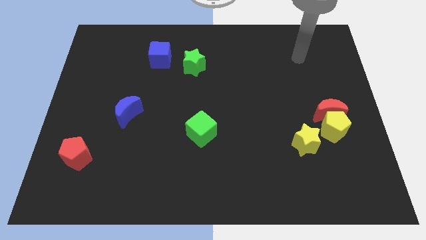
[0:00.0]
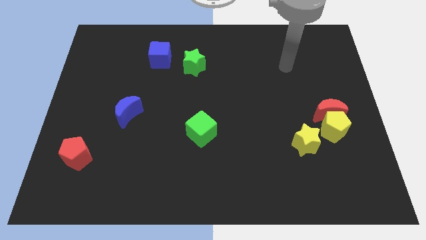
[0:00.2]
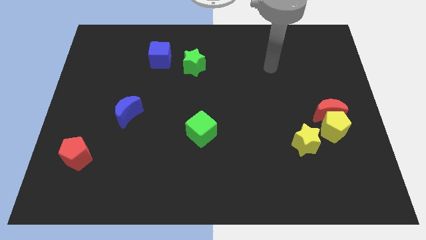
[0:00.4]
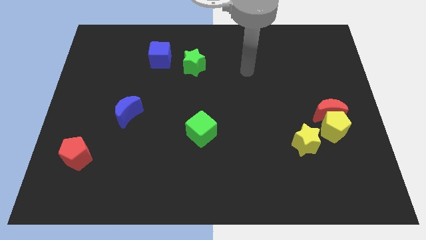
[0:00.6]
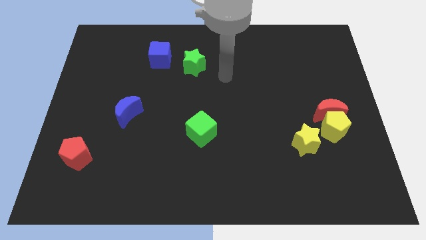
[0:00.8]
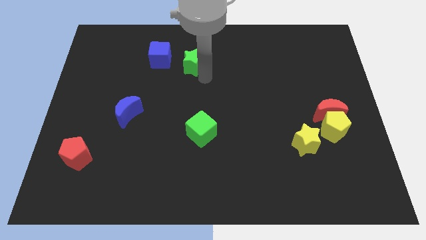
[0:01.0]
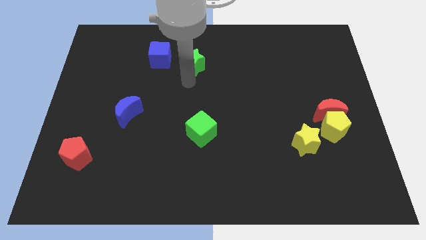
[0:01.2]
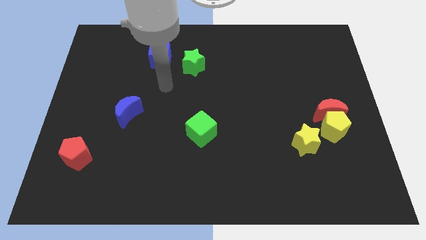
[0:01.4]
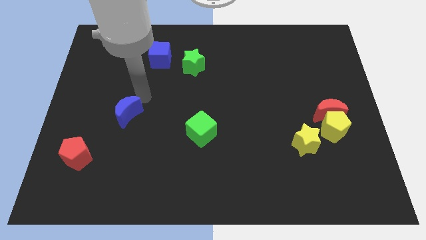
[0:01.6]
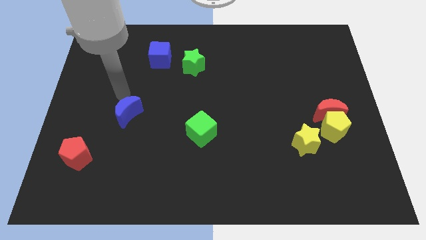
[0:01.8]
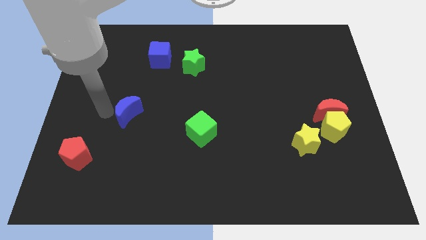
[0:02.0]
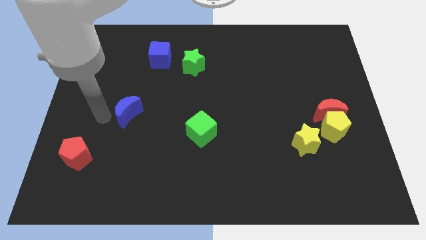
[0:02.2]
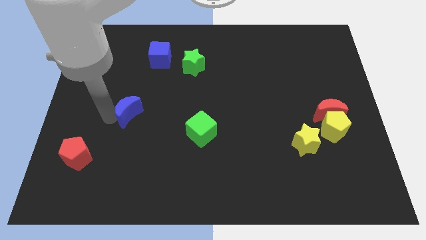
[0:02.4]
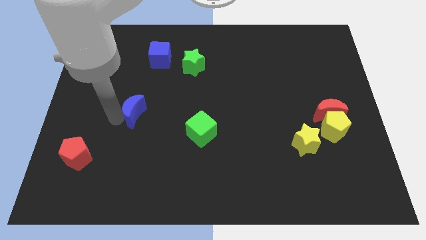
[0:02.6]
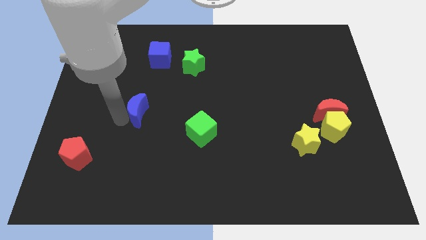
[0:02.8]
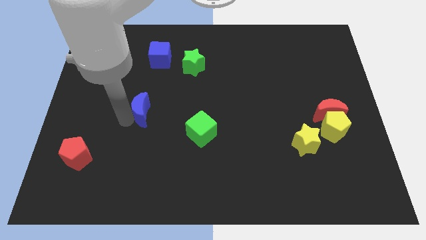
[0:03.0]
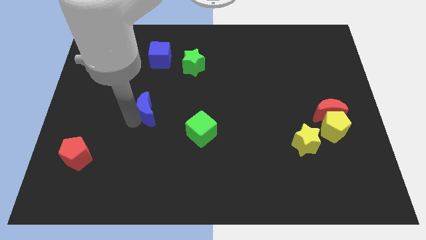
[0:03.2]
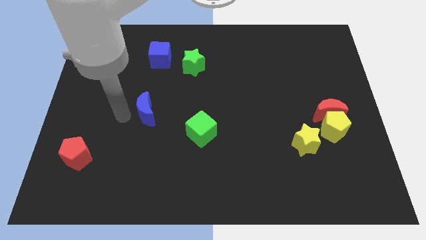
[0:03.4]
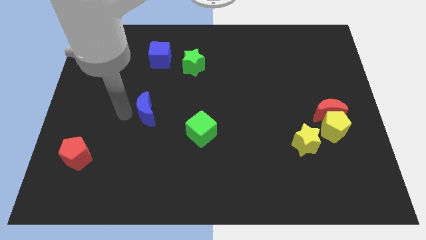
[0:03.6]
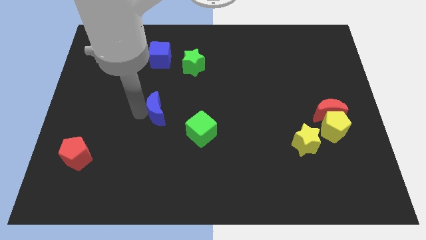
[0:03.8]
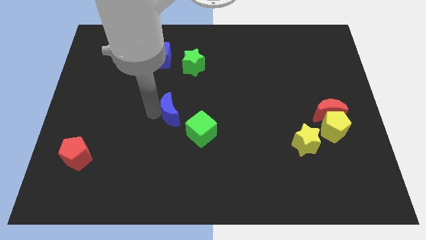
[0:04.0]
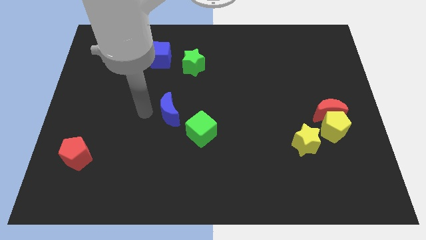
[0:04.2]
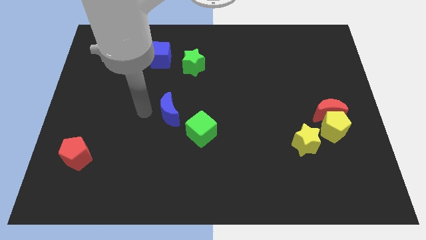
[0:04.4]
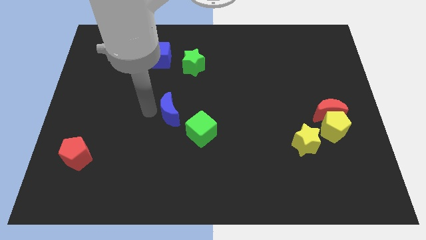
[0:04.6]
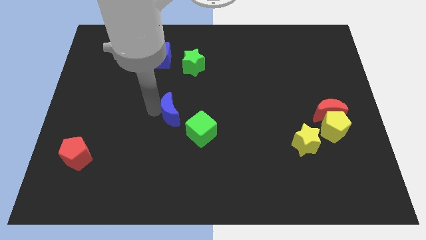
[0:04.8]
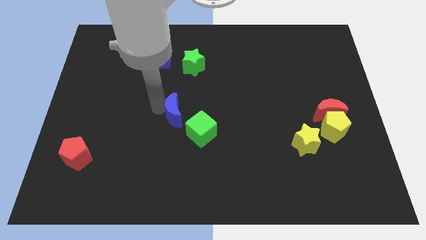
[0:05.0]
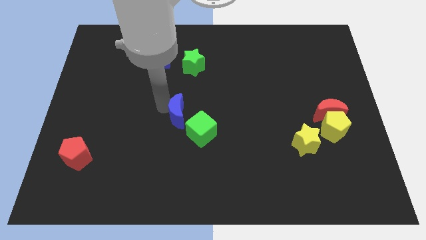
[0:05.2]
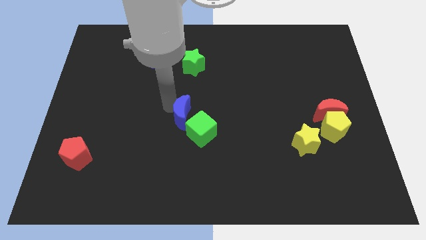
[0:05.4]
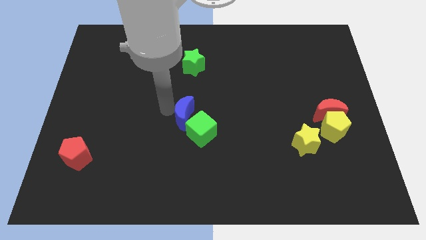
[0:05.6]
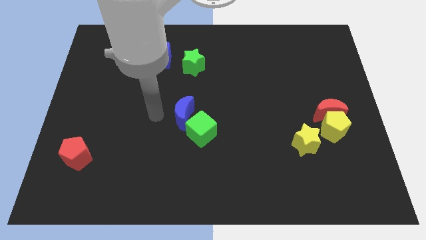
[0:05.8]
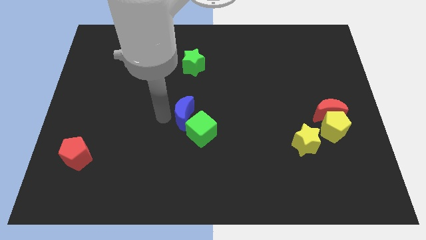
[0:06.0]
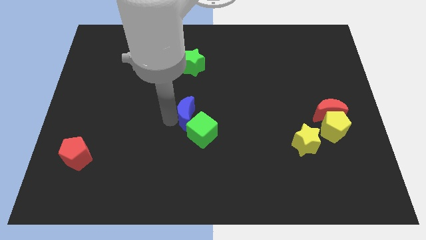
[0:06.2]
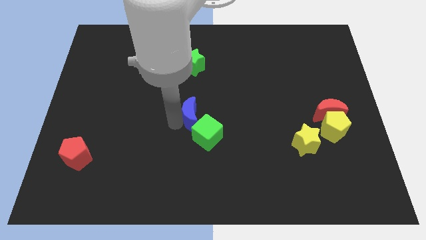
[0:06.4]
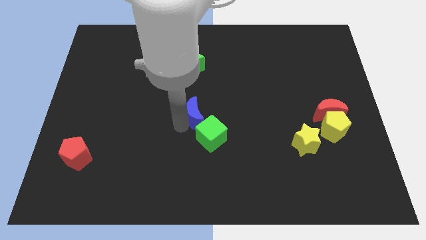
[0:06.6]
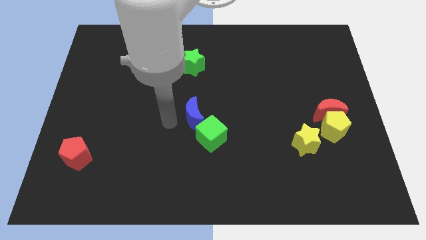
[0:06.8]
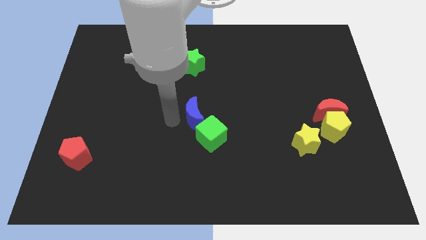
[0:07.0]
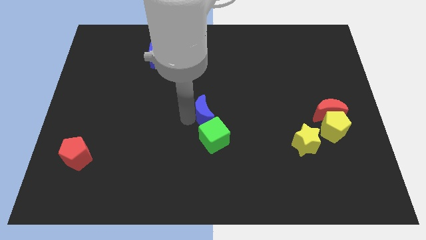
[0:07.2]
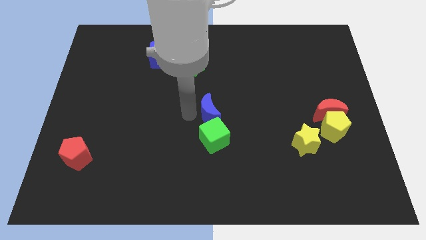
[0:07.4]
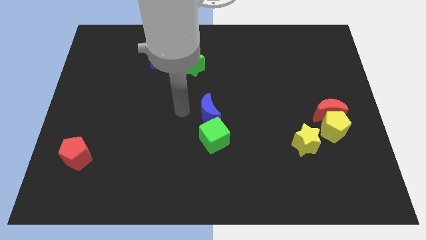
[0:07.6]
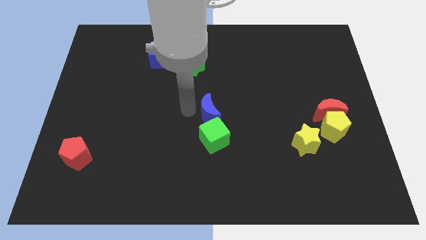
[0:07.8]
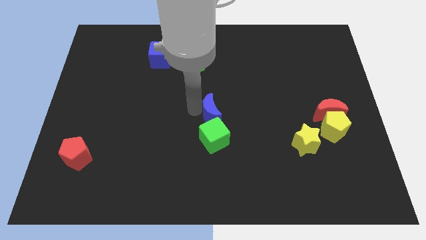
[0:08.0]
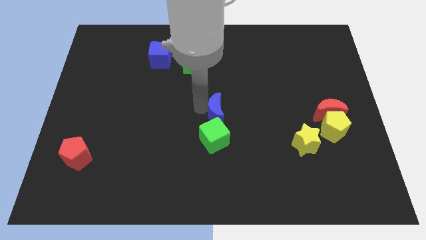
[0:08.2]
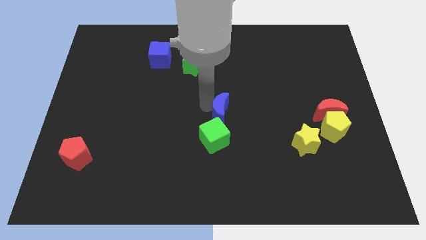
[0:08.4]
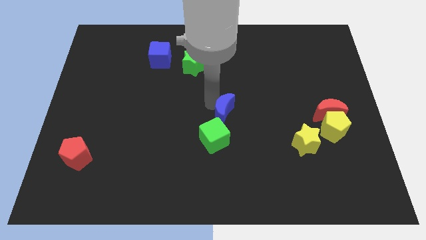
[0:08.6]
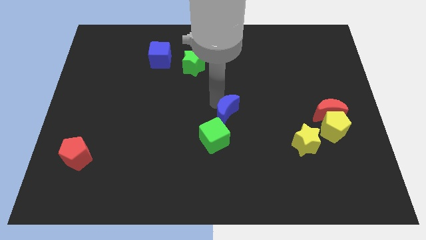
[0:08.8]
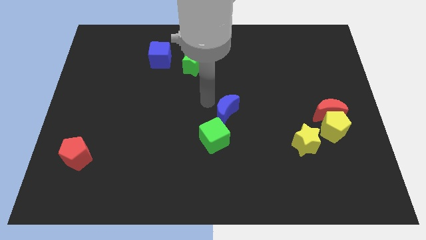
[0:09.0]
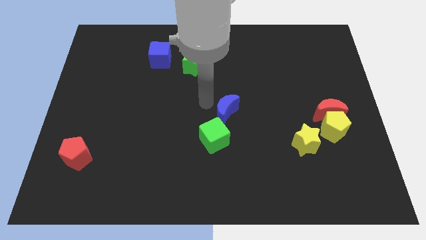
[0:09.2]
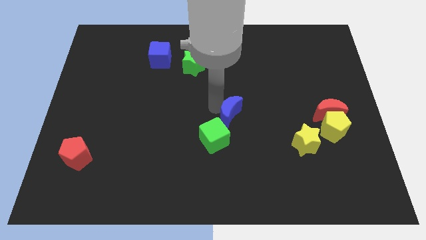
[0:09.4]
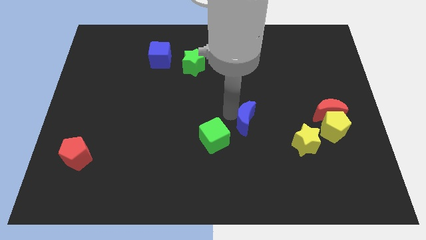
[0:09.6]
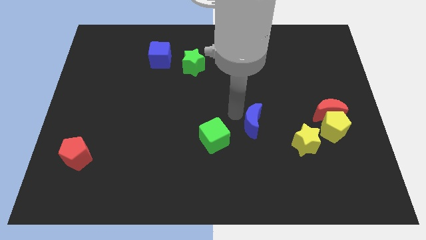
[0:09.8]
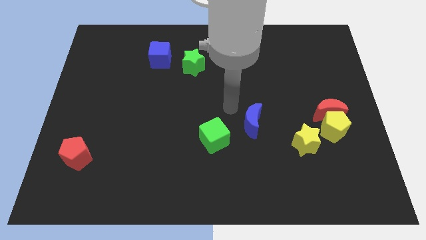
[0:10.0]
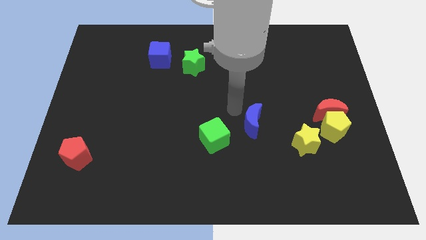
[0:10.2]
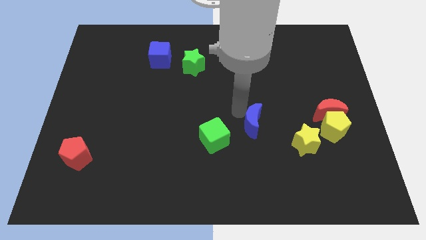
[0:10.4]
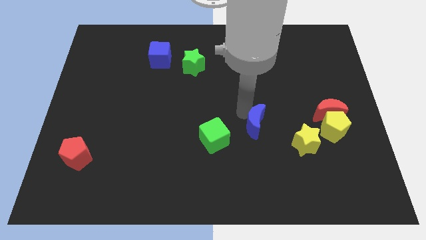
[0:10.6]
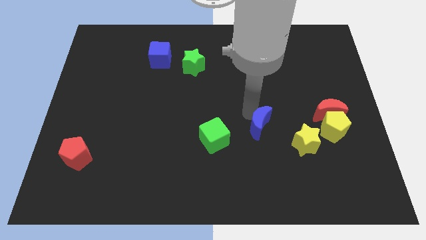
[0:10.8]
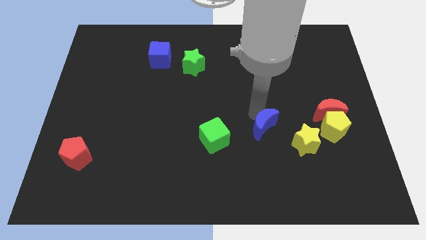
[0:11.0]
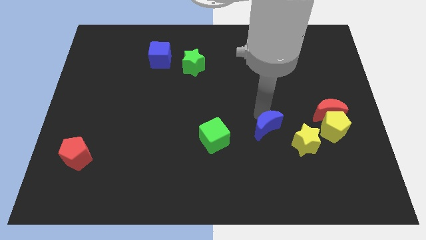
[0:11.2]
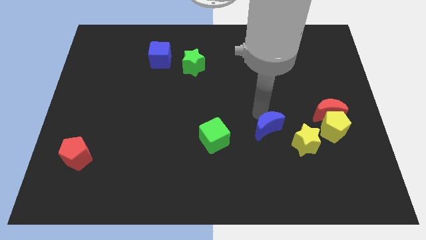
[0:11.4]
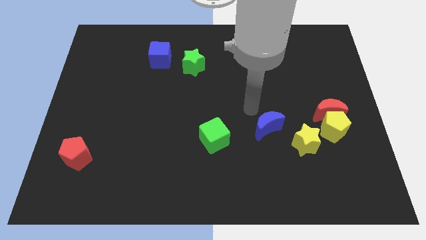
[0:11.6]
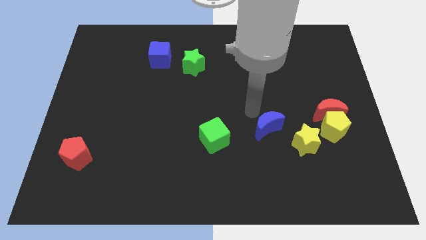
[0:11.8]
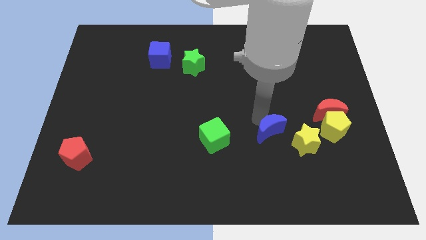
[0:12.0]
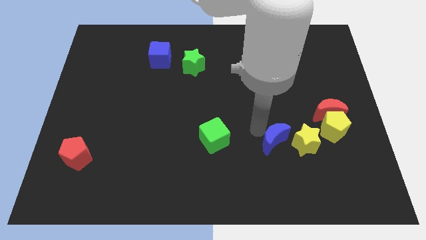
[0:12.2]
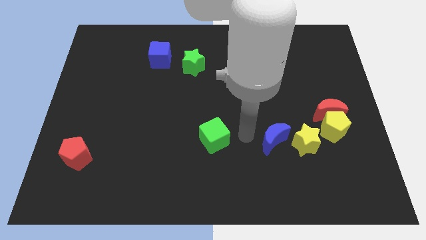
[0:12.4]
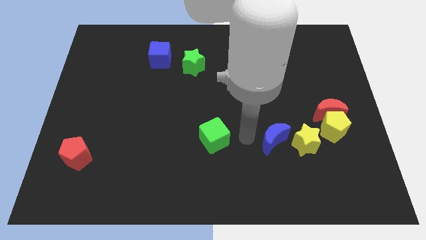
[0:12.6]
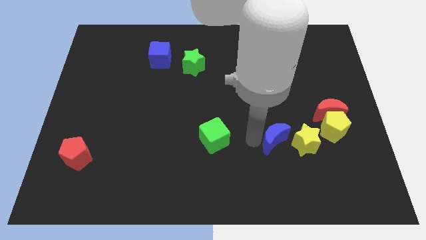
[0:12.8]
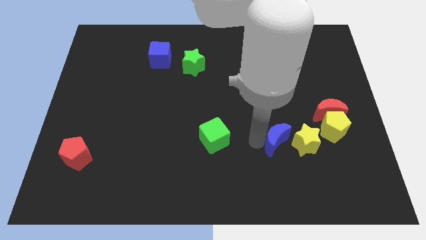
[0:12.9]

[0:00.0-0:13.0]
move the blue moon to the yellow star

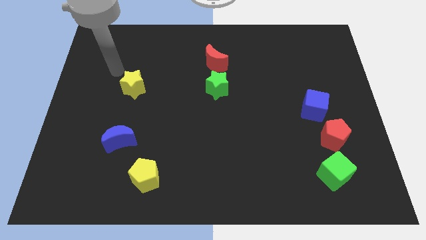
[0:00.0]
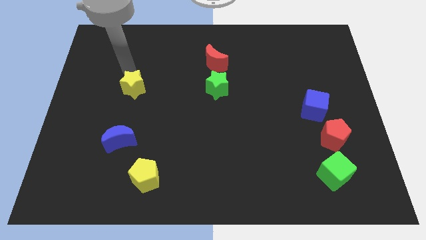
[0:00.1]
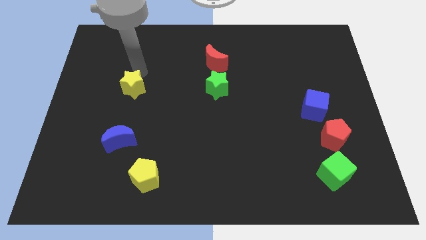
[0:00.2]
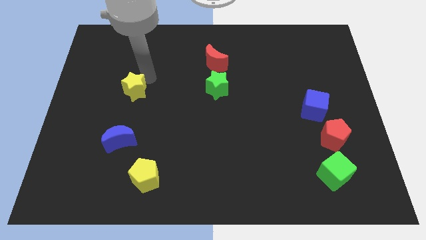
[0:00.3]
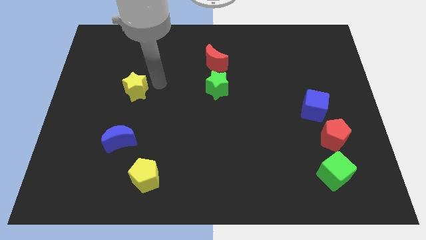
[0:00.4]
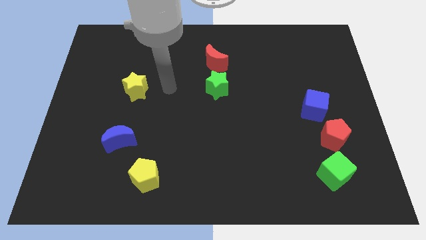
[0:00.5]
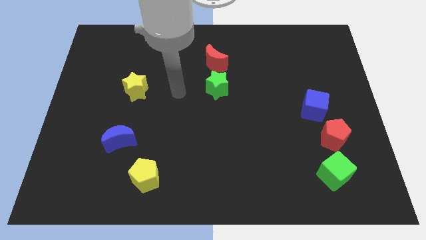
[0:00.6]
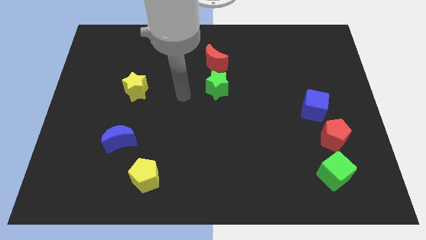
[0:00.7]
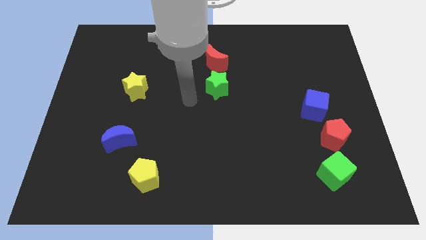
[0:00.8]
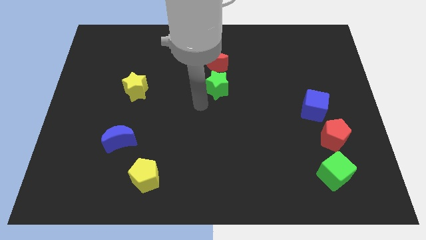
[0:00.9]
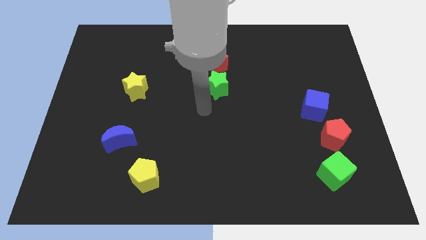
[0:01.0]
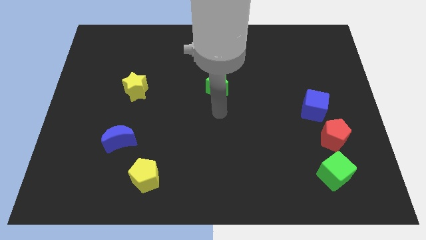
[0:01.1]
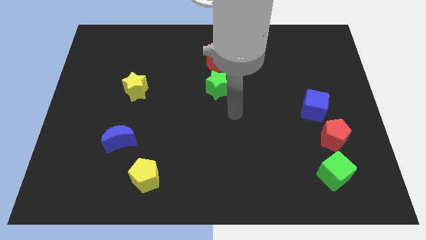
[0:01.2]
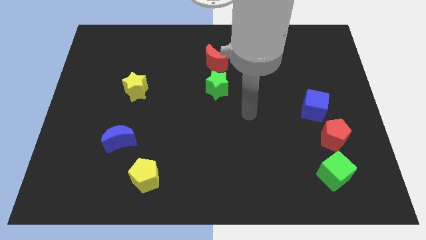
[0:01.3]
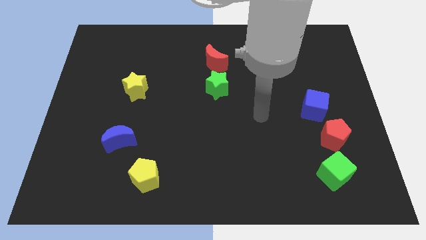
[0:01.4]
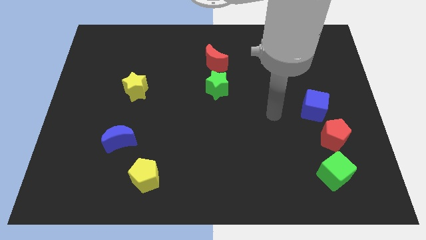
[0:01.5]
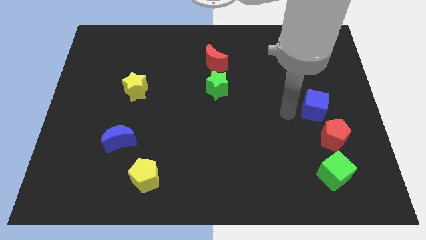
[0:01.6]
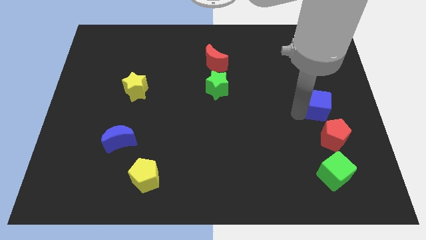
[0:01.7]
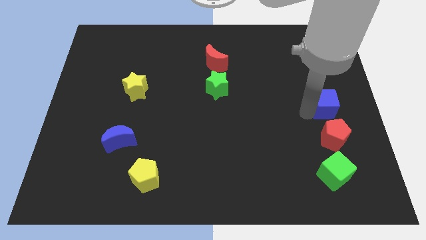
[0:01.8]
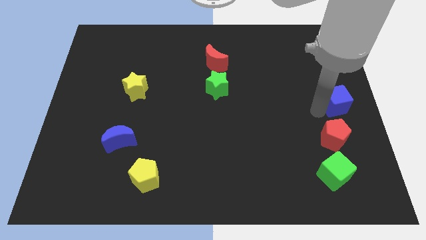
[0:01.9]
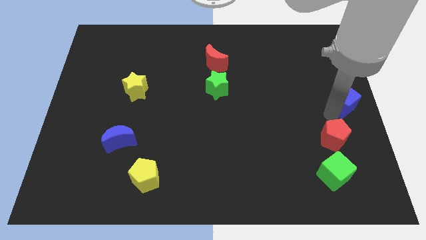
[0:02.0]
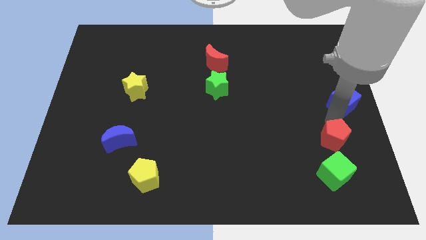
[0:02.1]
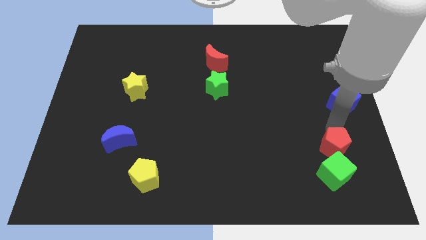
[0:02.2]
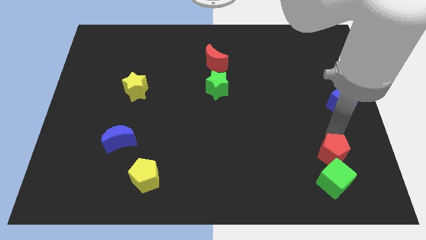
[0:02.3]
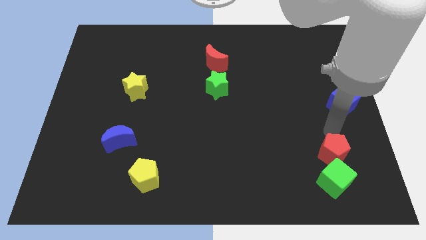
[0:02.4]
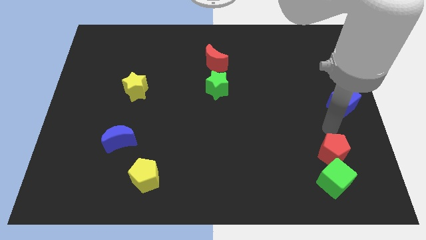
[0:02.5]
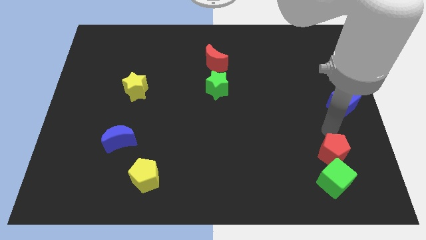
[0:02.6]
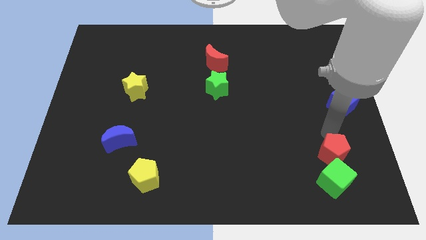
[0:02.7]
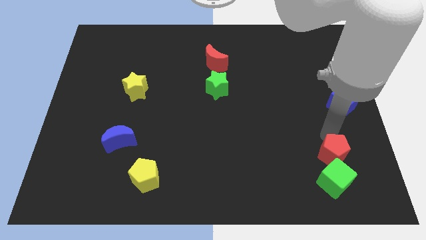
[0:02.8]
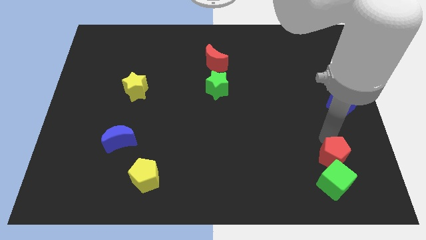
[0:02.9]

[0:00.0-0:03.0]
push the red pentagon close to the green cube
